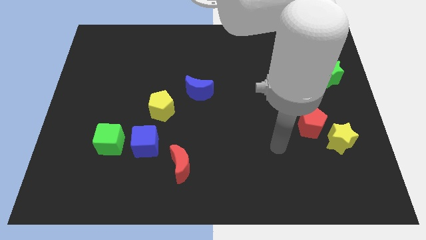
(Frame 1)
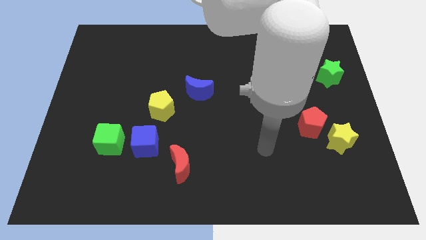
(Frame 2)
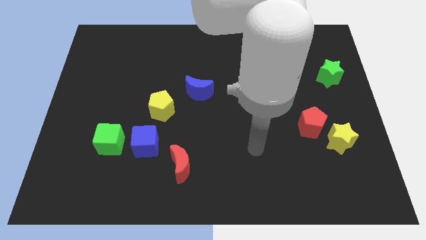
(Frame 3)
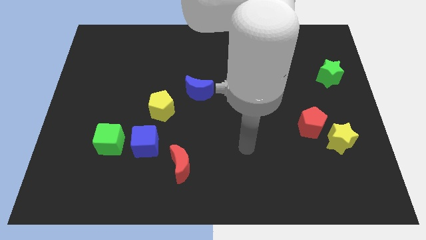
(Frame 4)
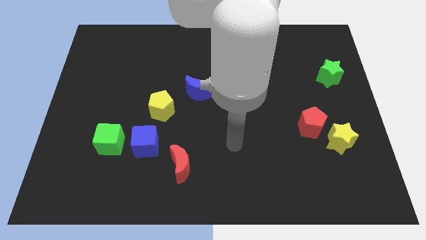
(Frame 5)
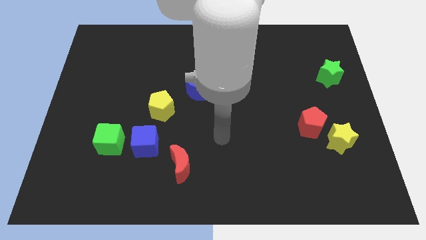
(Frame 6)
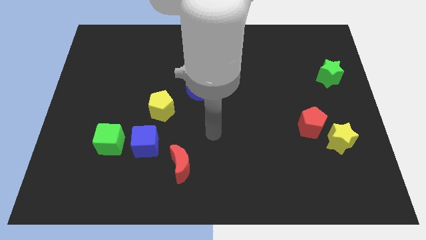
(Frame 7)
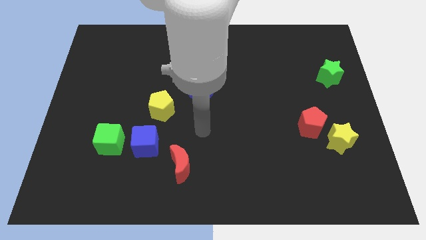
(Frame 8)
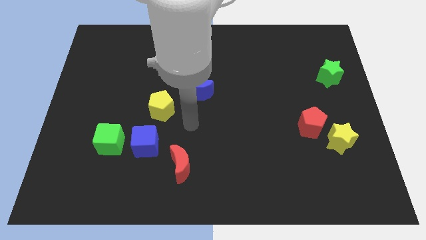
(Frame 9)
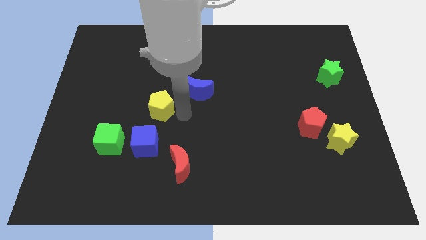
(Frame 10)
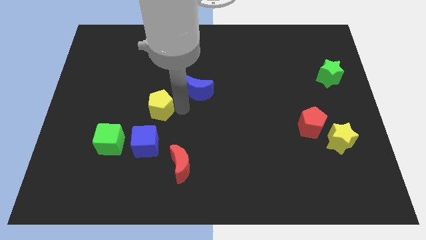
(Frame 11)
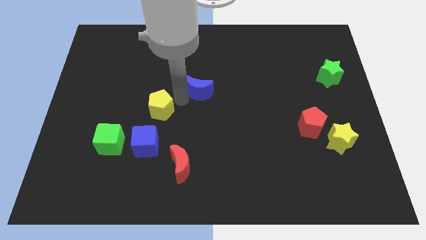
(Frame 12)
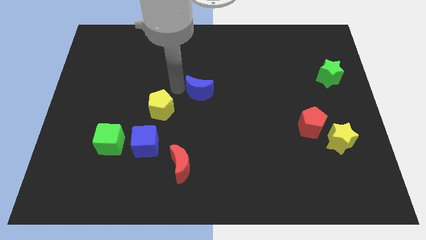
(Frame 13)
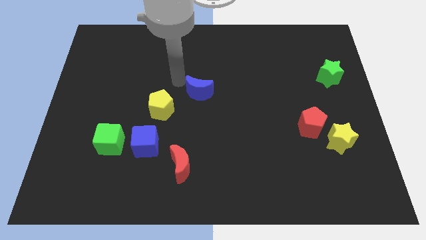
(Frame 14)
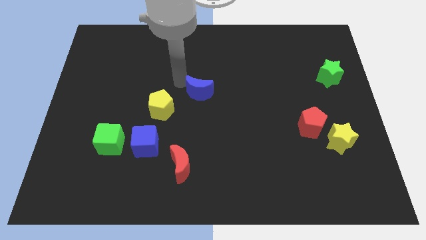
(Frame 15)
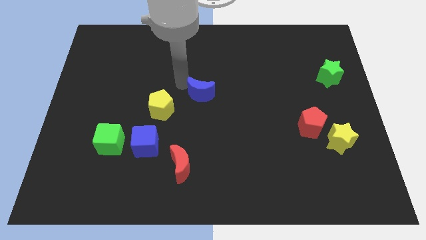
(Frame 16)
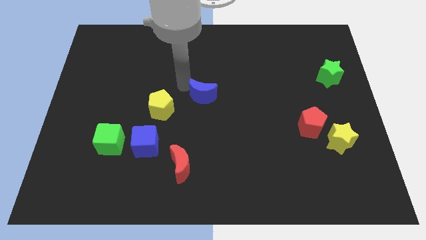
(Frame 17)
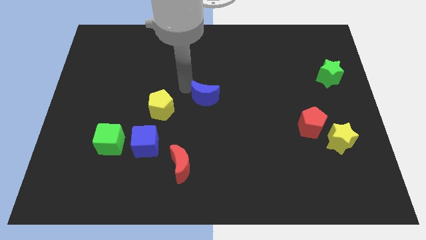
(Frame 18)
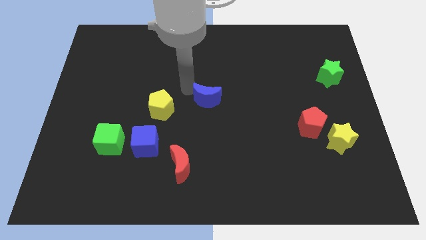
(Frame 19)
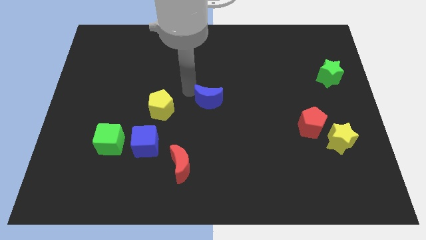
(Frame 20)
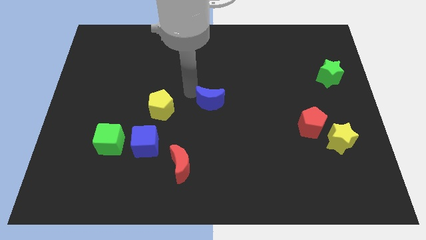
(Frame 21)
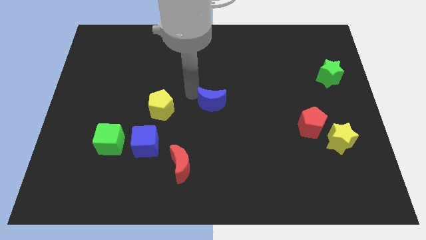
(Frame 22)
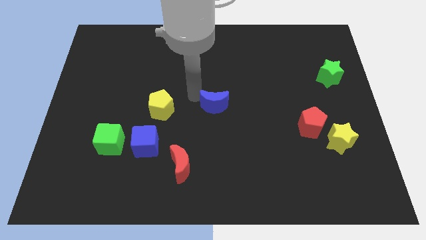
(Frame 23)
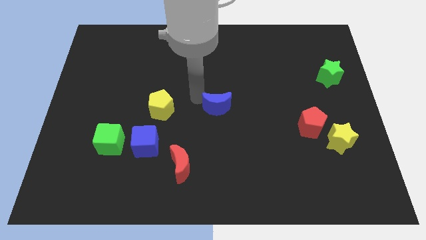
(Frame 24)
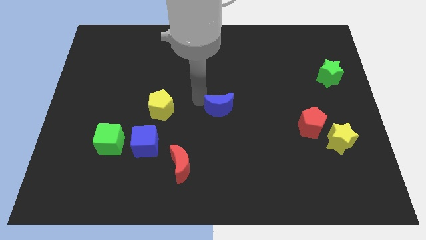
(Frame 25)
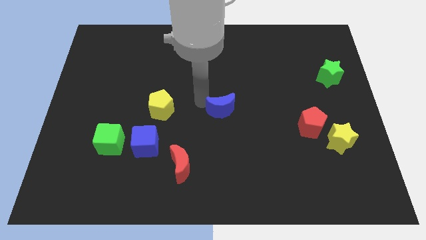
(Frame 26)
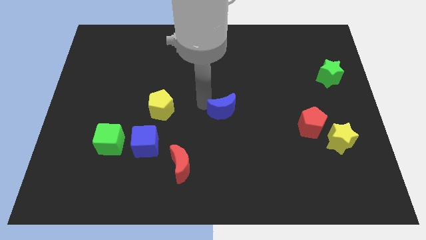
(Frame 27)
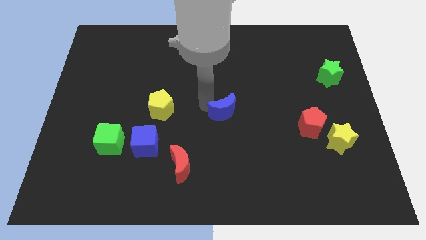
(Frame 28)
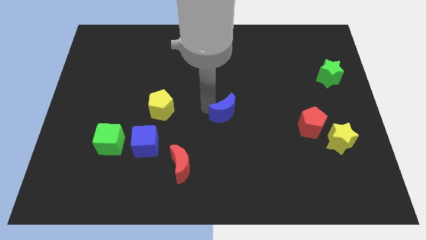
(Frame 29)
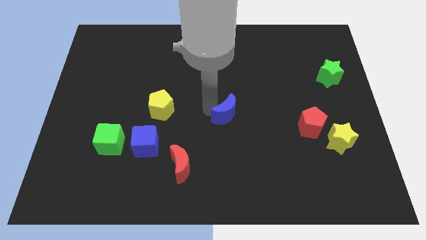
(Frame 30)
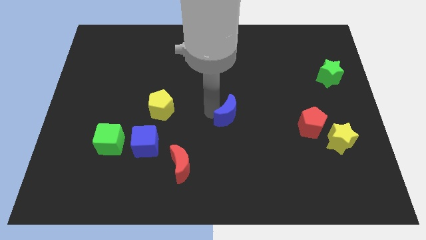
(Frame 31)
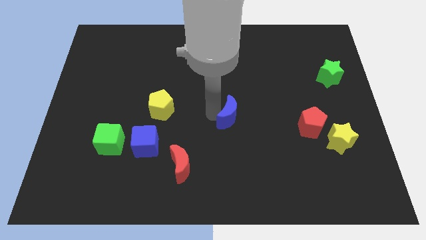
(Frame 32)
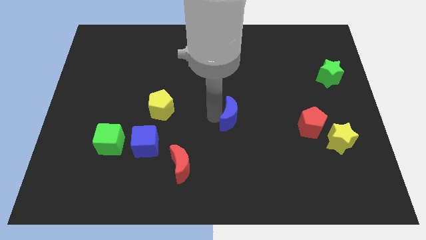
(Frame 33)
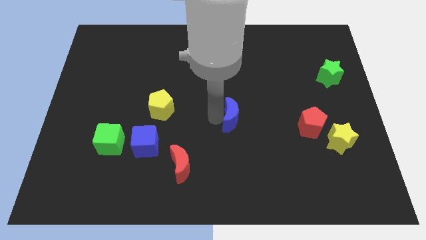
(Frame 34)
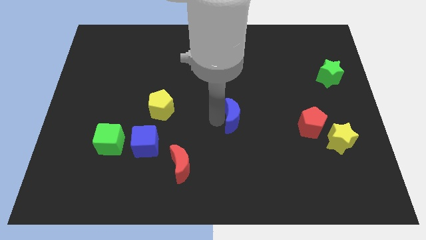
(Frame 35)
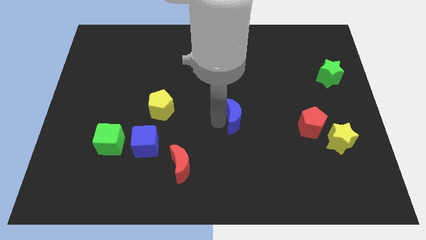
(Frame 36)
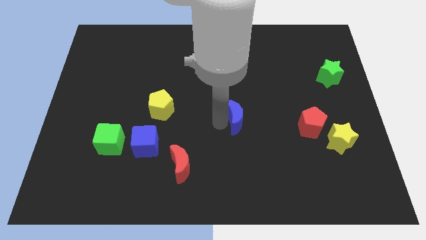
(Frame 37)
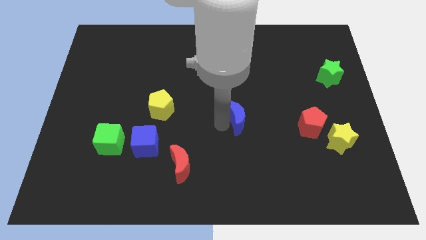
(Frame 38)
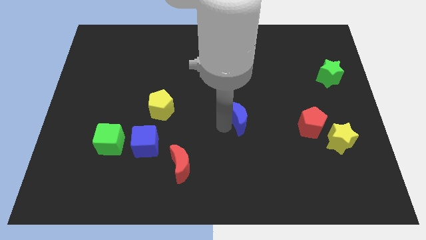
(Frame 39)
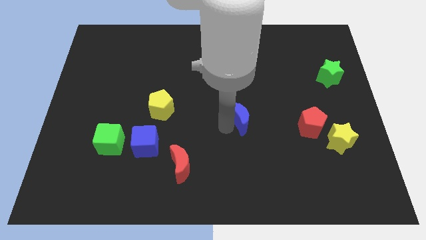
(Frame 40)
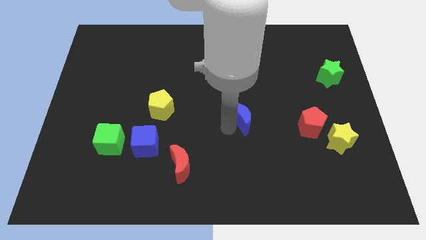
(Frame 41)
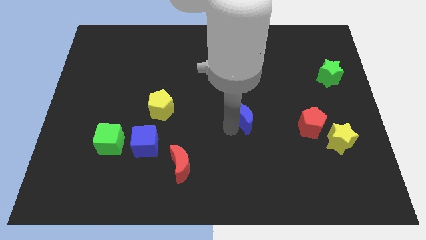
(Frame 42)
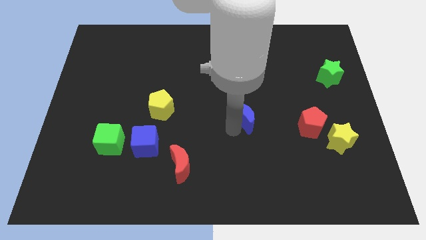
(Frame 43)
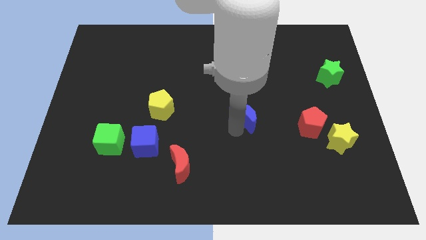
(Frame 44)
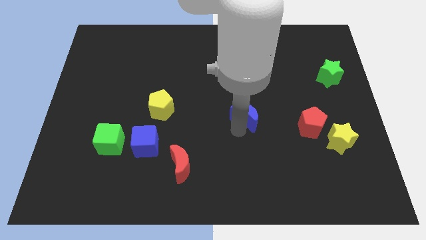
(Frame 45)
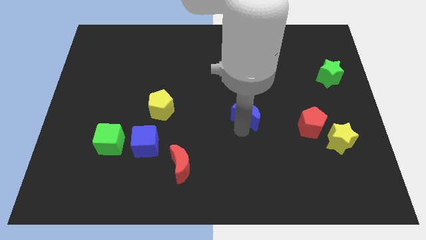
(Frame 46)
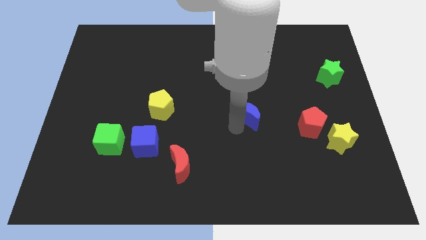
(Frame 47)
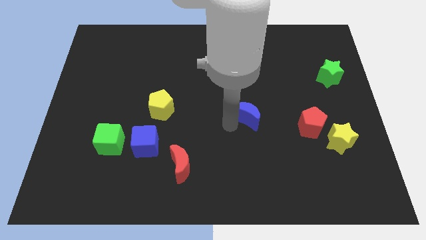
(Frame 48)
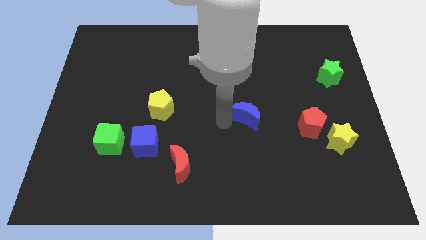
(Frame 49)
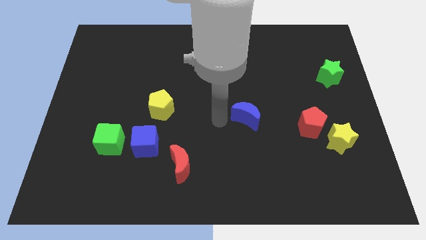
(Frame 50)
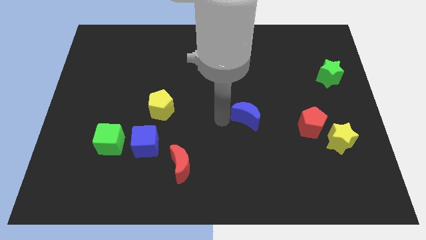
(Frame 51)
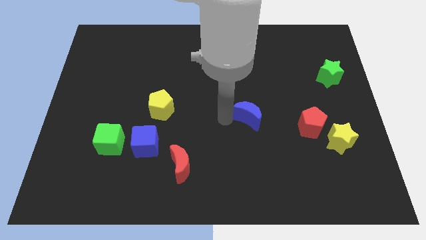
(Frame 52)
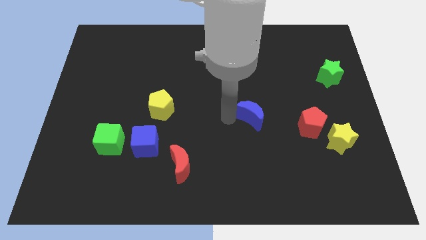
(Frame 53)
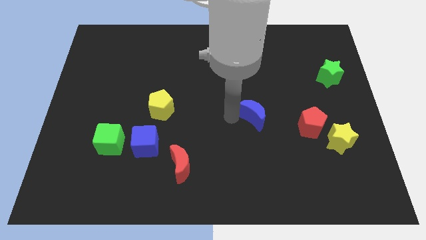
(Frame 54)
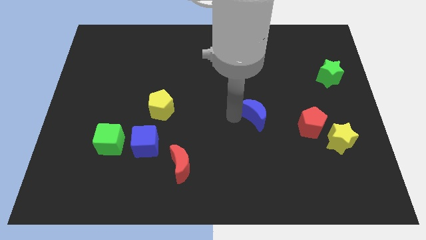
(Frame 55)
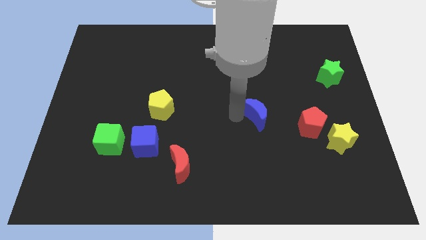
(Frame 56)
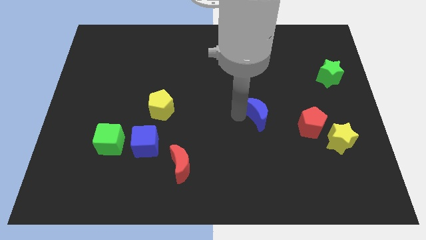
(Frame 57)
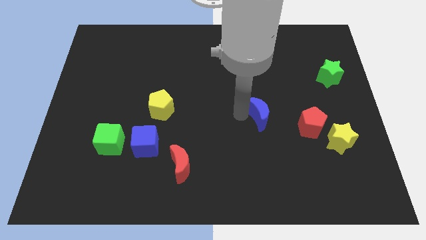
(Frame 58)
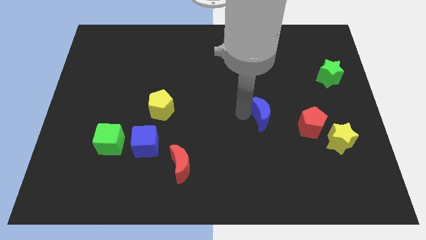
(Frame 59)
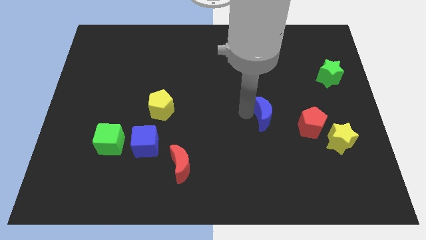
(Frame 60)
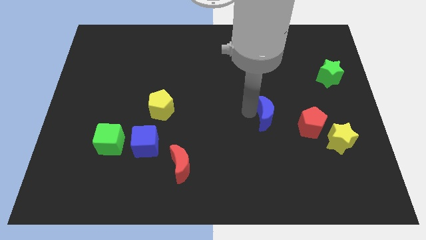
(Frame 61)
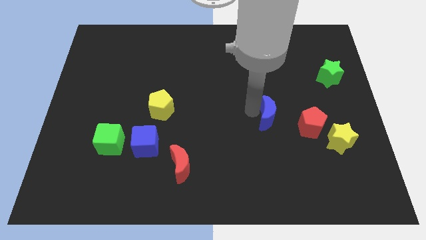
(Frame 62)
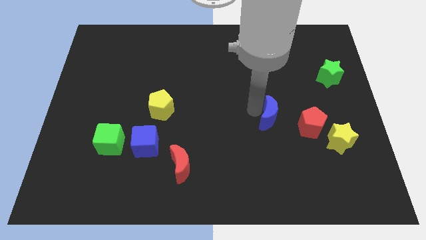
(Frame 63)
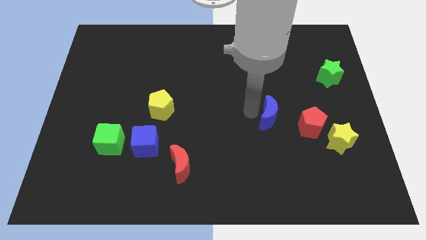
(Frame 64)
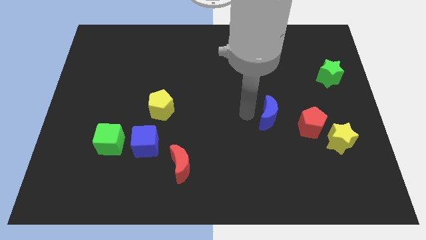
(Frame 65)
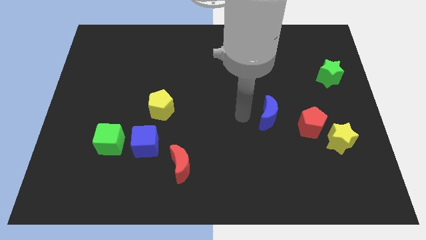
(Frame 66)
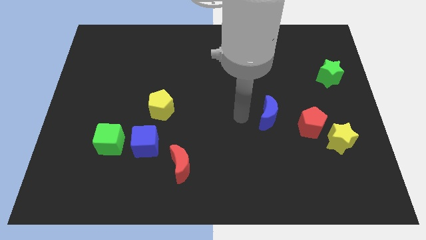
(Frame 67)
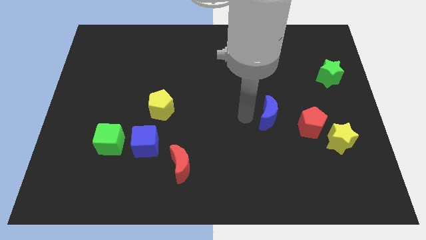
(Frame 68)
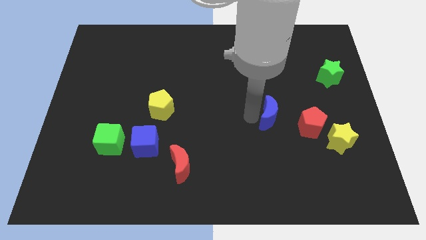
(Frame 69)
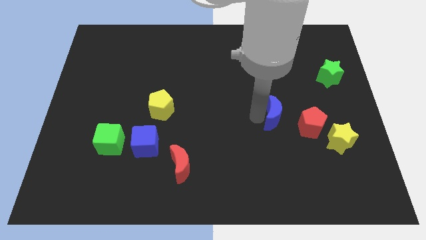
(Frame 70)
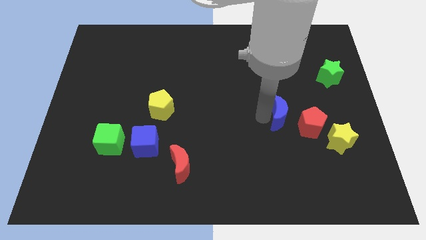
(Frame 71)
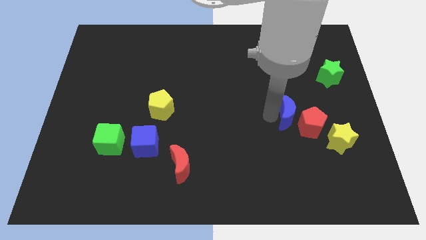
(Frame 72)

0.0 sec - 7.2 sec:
push the blue moon towards the red pentagon
